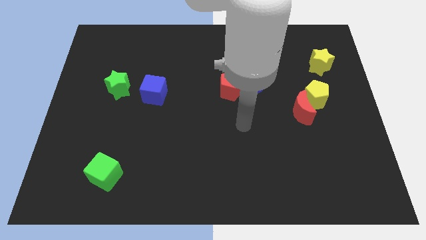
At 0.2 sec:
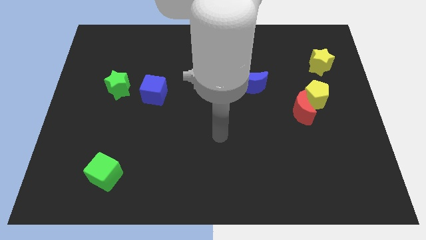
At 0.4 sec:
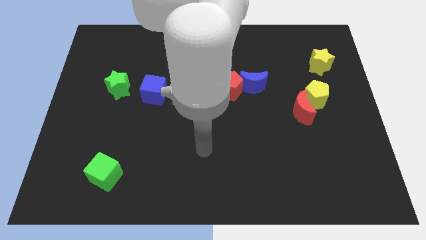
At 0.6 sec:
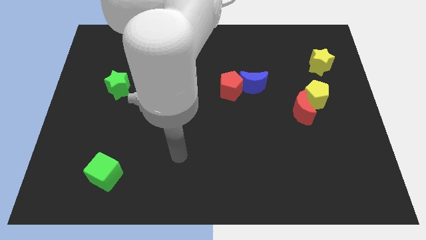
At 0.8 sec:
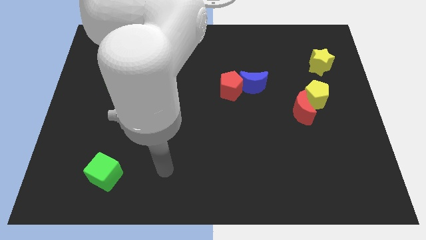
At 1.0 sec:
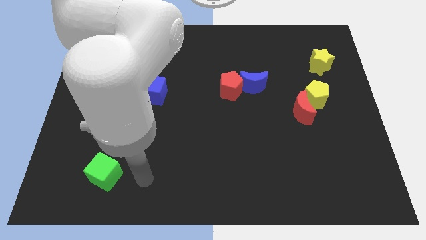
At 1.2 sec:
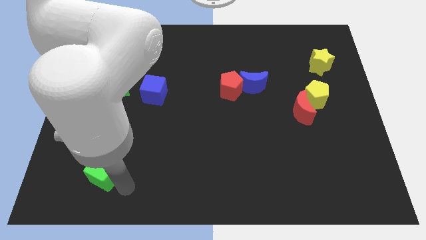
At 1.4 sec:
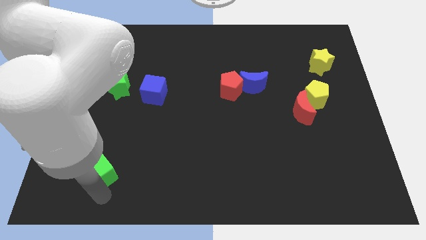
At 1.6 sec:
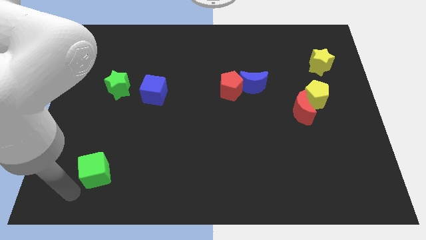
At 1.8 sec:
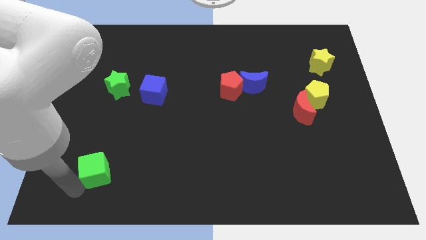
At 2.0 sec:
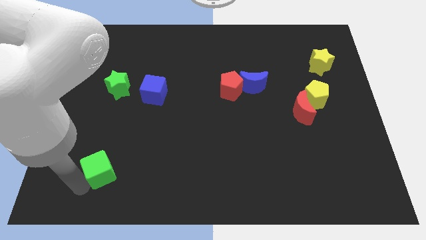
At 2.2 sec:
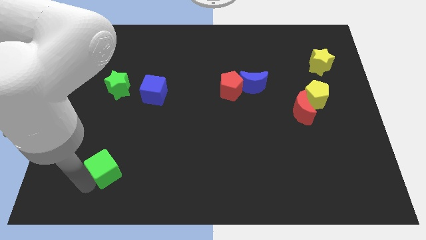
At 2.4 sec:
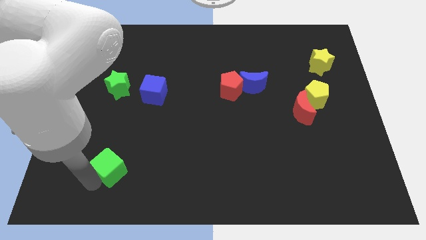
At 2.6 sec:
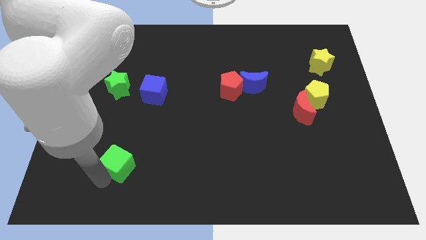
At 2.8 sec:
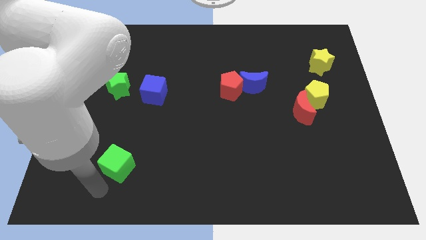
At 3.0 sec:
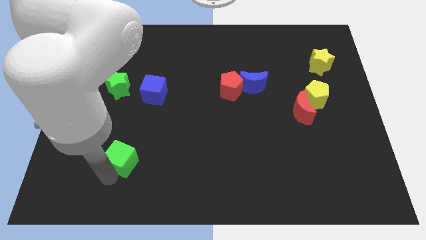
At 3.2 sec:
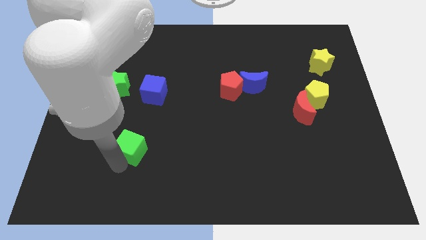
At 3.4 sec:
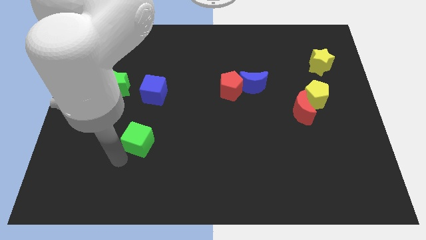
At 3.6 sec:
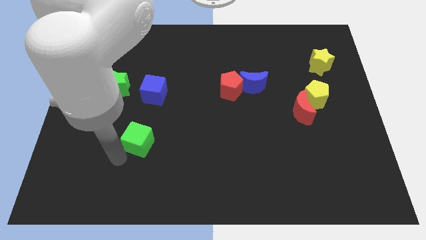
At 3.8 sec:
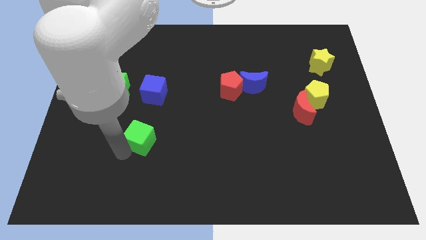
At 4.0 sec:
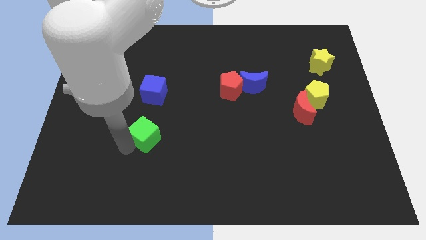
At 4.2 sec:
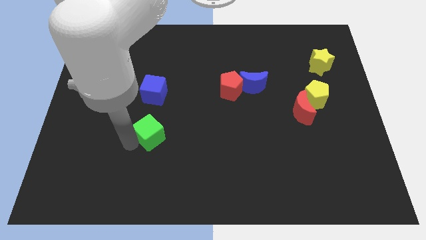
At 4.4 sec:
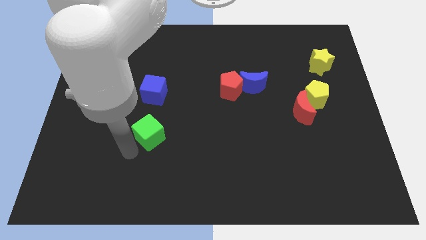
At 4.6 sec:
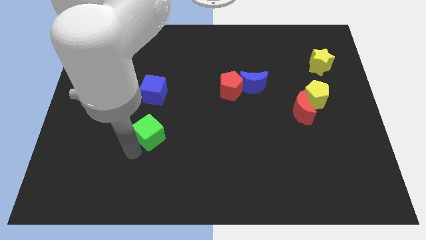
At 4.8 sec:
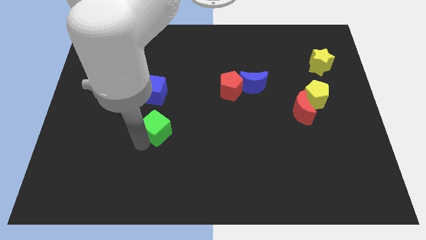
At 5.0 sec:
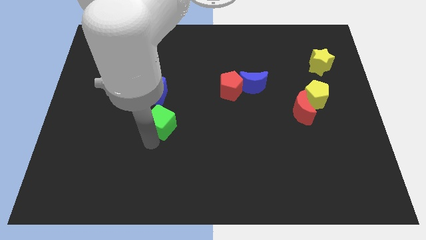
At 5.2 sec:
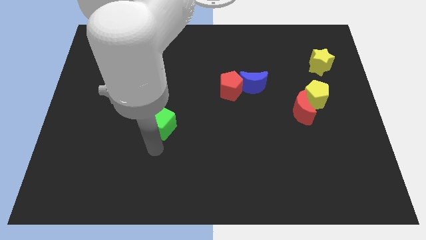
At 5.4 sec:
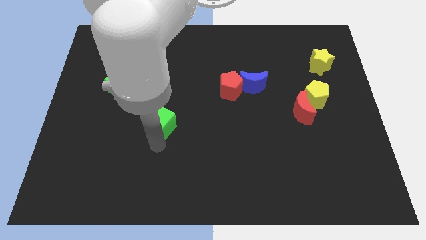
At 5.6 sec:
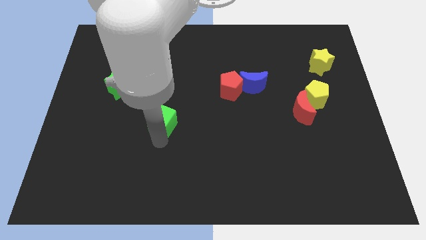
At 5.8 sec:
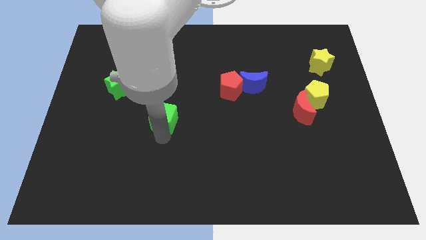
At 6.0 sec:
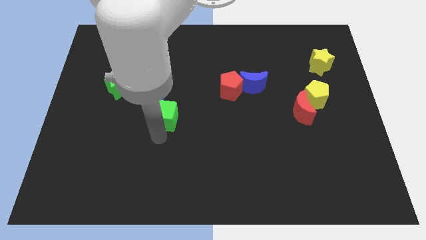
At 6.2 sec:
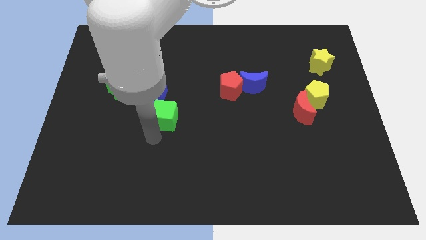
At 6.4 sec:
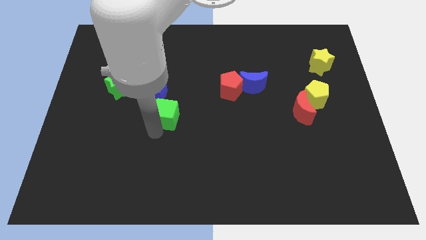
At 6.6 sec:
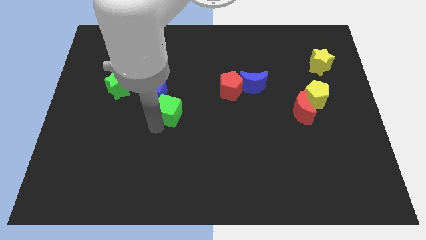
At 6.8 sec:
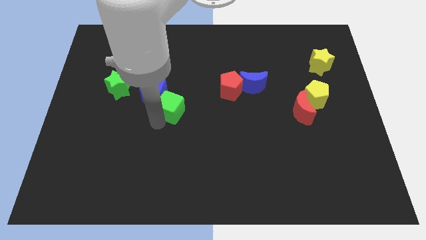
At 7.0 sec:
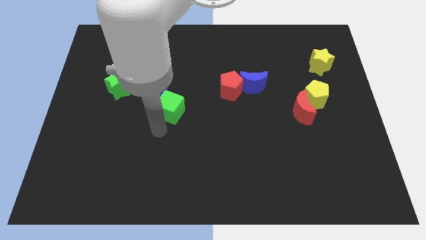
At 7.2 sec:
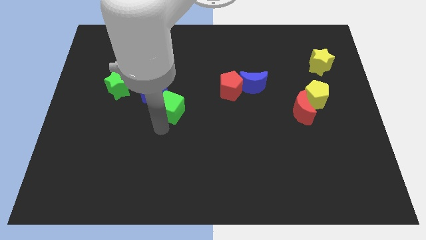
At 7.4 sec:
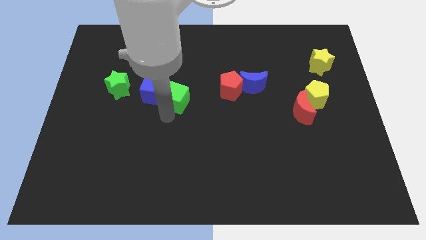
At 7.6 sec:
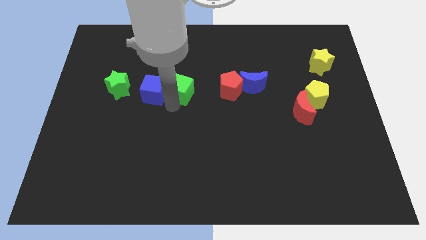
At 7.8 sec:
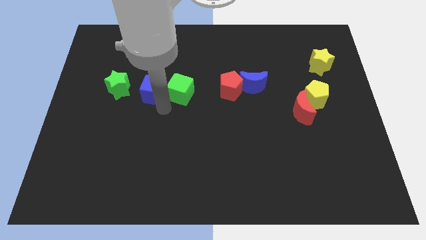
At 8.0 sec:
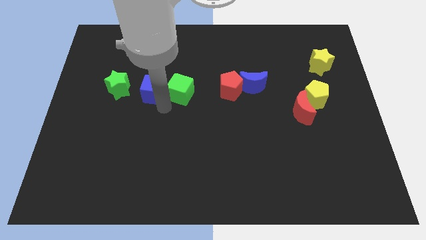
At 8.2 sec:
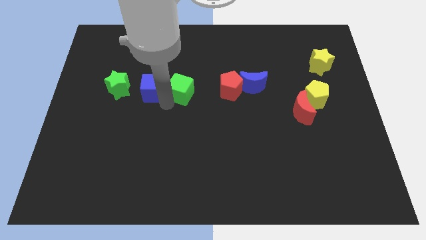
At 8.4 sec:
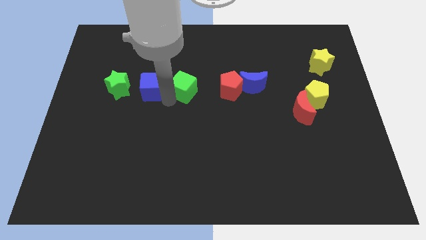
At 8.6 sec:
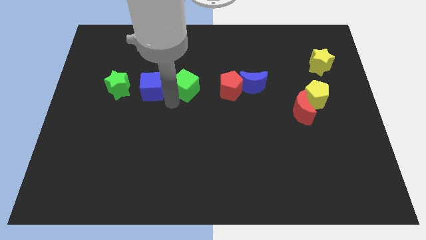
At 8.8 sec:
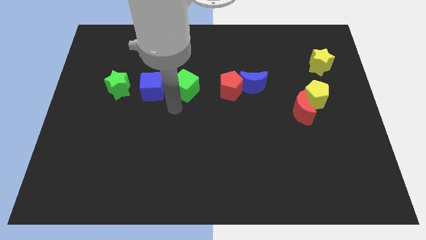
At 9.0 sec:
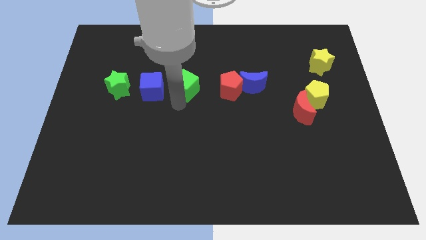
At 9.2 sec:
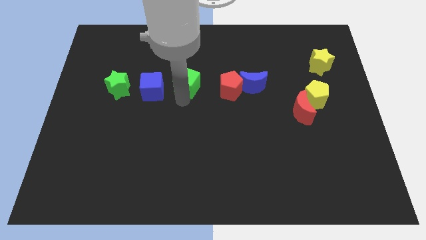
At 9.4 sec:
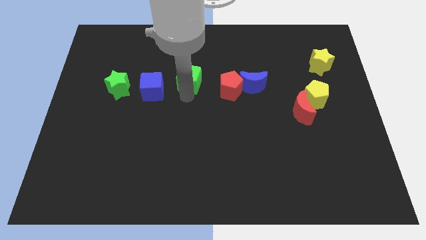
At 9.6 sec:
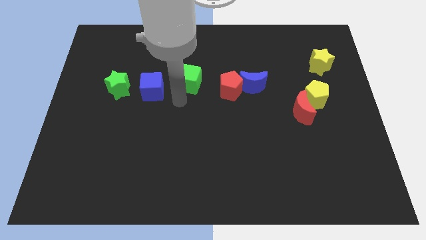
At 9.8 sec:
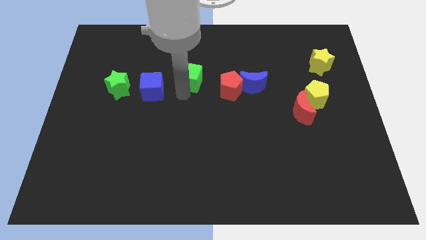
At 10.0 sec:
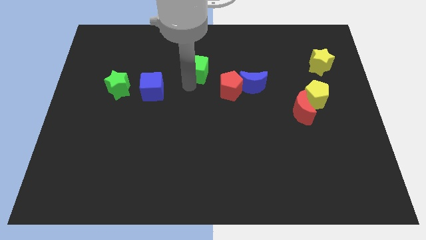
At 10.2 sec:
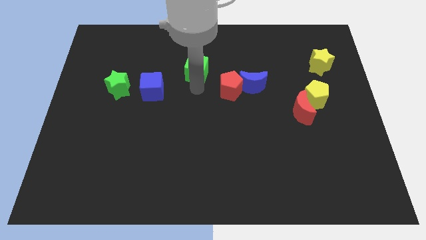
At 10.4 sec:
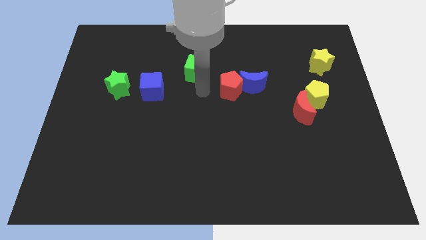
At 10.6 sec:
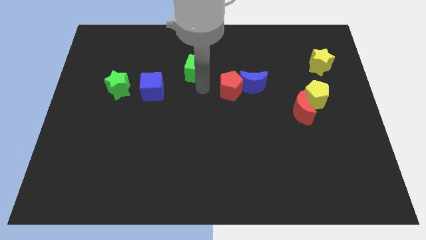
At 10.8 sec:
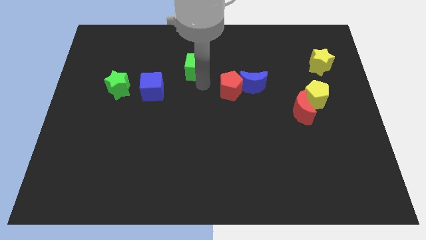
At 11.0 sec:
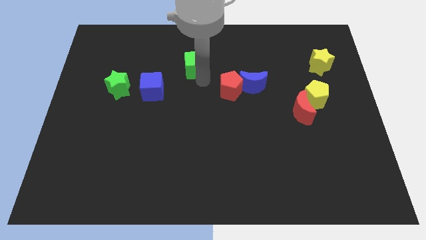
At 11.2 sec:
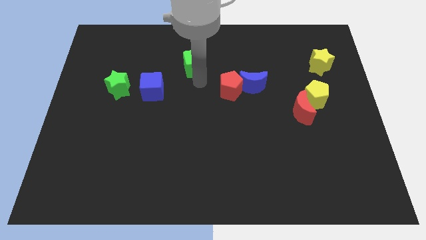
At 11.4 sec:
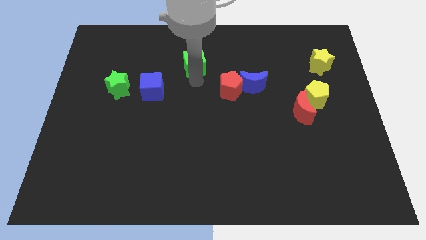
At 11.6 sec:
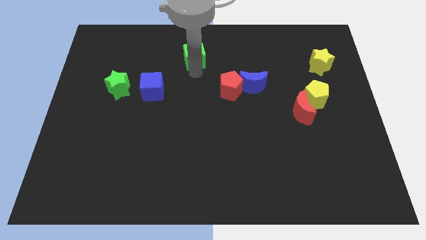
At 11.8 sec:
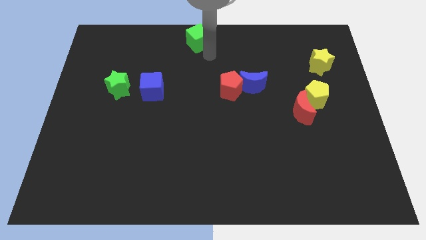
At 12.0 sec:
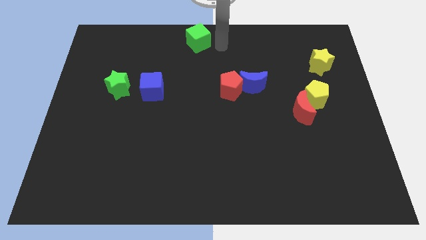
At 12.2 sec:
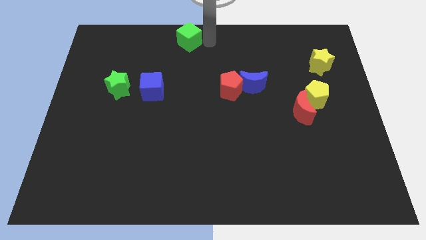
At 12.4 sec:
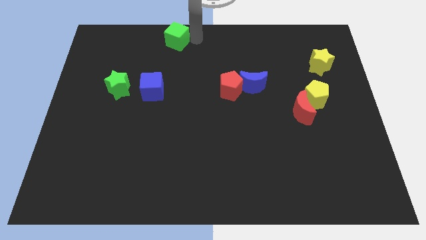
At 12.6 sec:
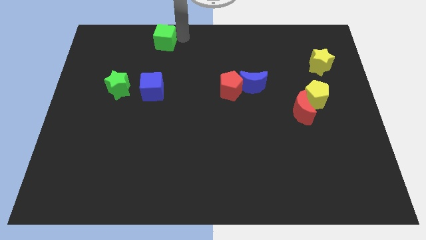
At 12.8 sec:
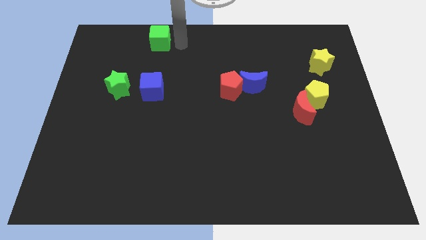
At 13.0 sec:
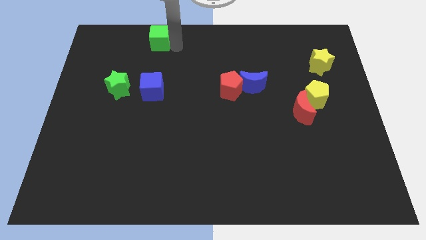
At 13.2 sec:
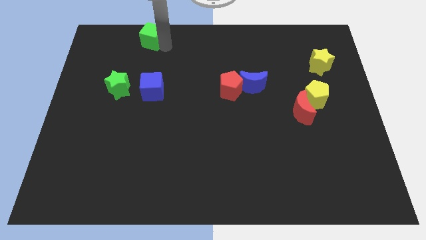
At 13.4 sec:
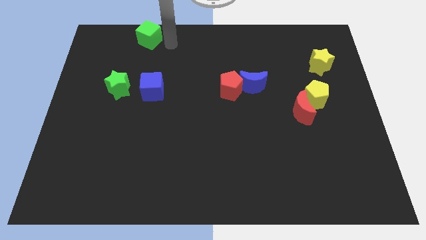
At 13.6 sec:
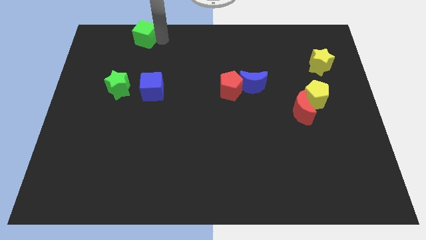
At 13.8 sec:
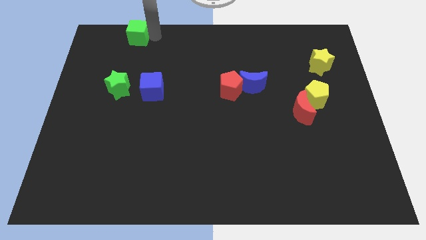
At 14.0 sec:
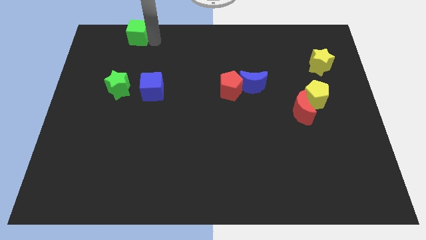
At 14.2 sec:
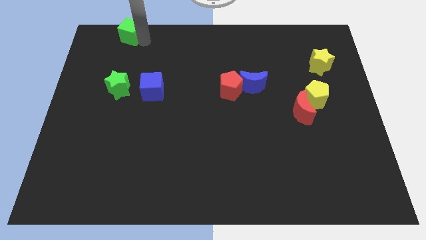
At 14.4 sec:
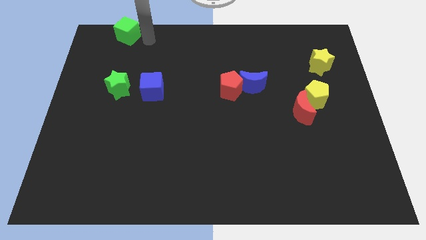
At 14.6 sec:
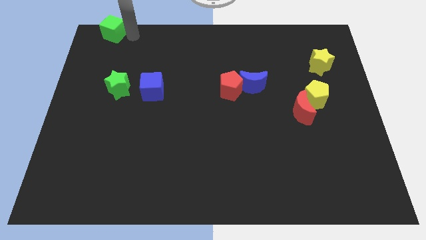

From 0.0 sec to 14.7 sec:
move the green cube to the top left of the board

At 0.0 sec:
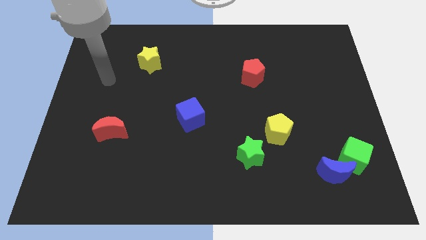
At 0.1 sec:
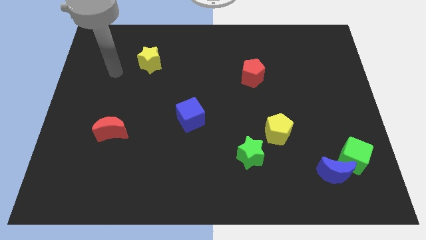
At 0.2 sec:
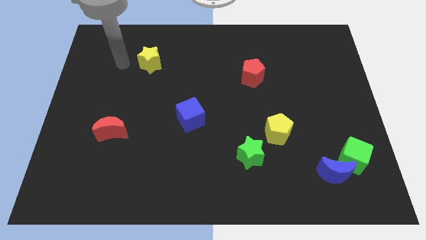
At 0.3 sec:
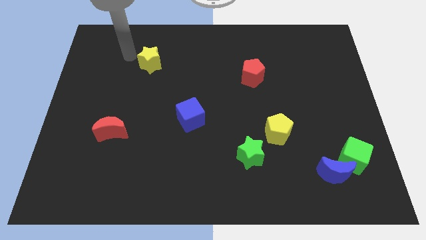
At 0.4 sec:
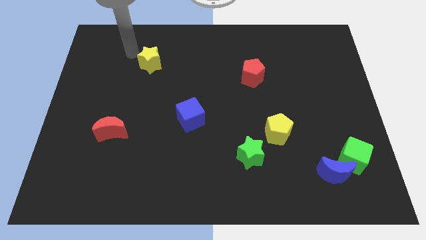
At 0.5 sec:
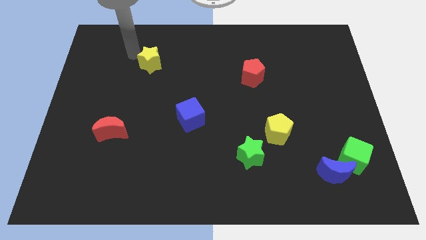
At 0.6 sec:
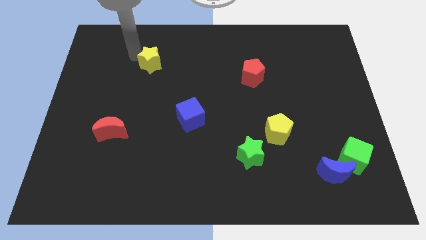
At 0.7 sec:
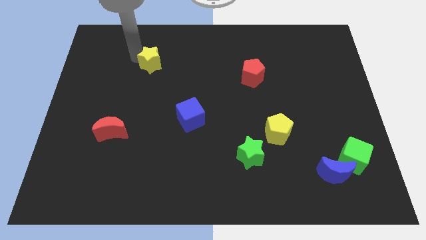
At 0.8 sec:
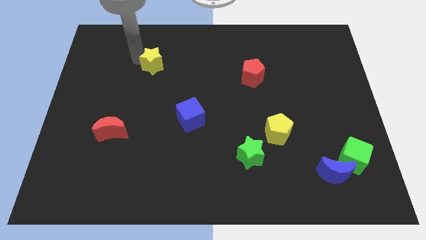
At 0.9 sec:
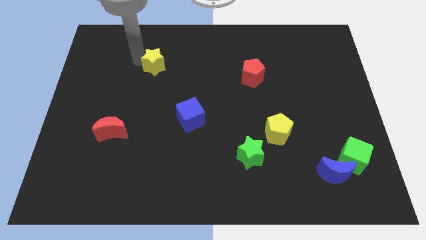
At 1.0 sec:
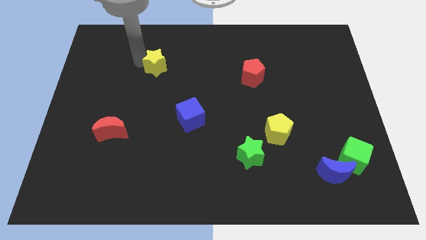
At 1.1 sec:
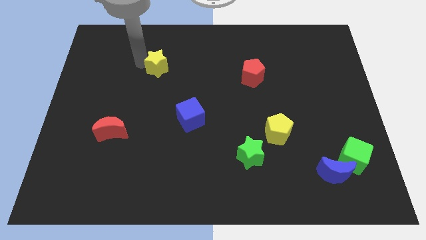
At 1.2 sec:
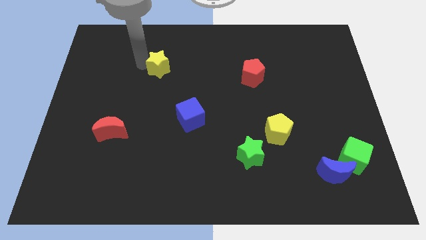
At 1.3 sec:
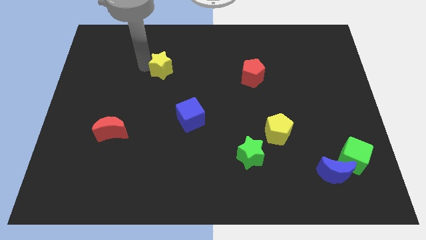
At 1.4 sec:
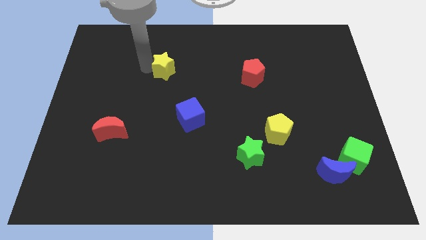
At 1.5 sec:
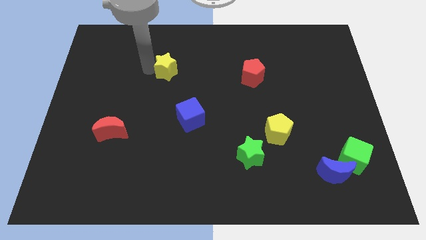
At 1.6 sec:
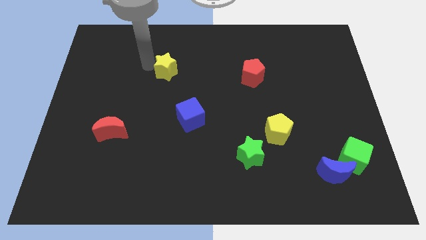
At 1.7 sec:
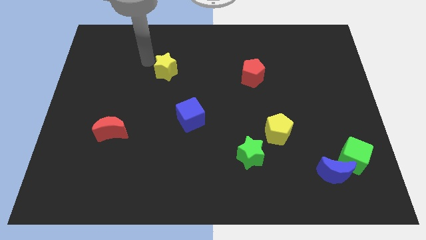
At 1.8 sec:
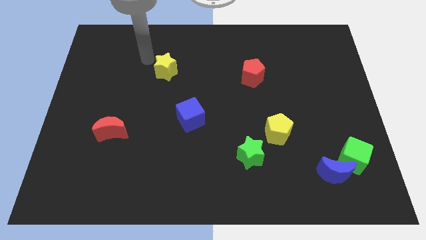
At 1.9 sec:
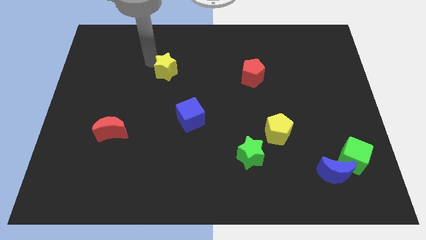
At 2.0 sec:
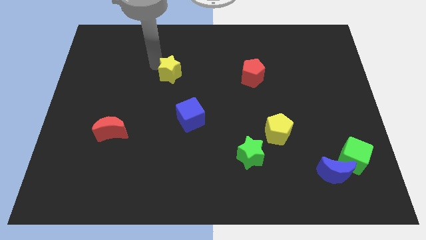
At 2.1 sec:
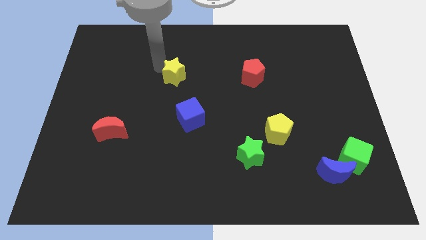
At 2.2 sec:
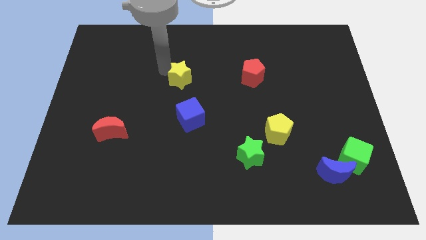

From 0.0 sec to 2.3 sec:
push the yellow star to the middle of the board
